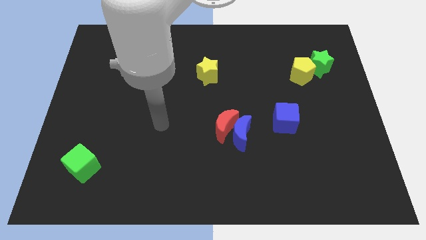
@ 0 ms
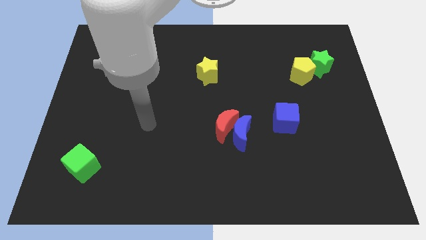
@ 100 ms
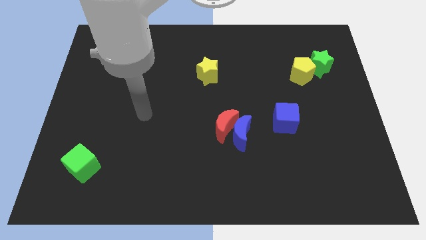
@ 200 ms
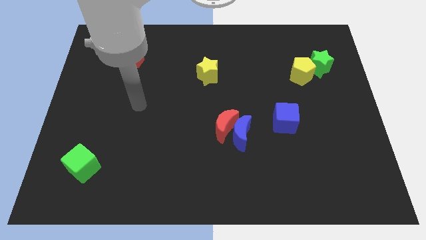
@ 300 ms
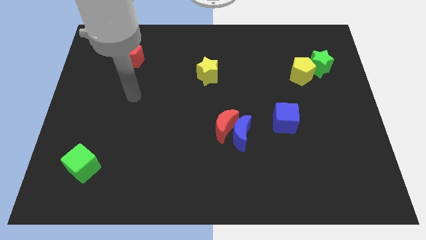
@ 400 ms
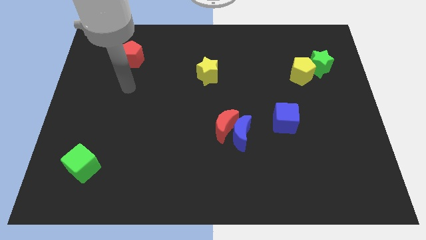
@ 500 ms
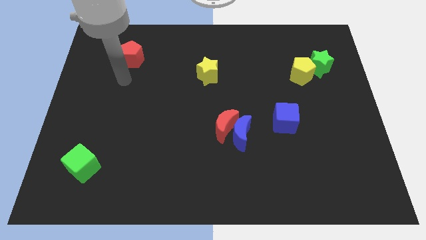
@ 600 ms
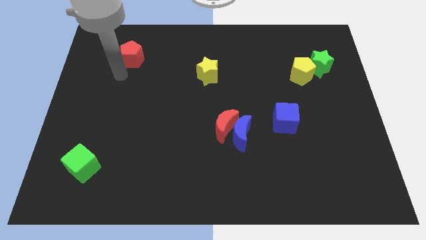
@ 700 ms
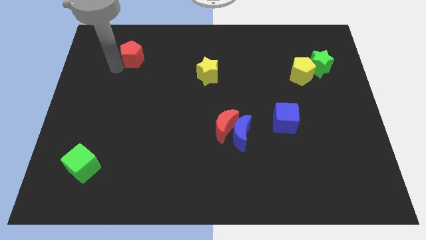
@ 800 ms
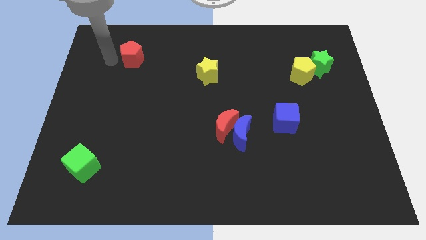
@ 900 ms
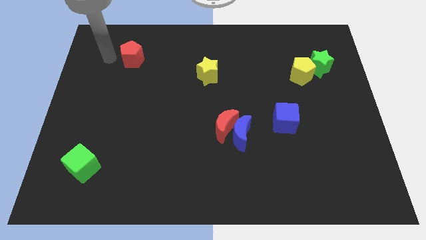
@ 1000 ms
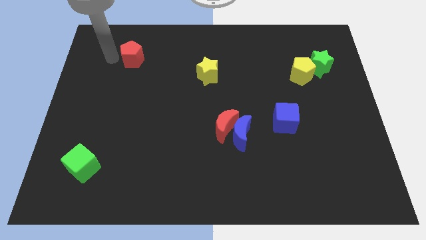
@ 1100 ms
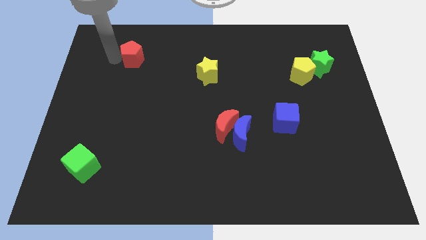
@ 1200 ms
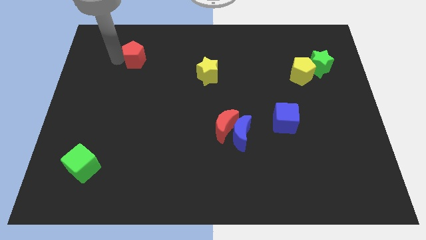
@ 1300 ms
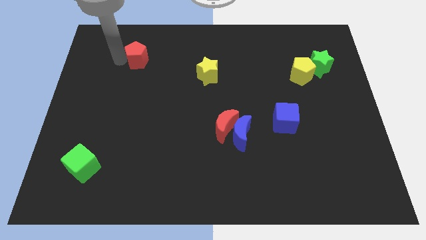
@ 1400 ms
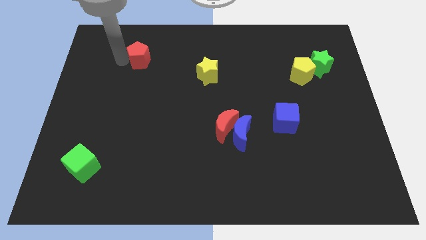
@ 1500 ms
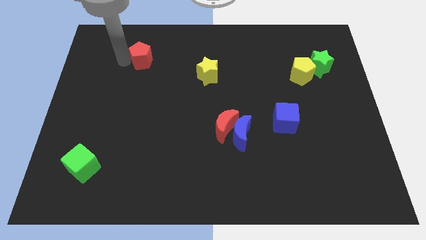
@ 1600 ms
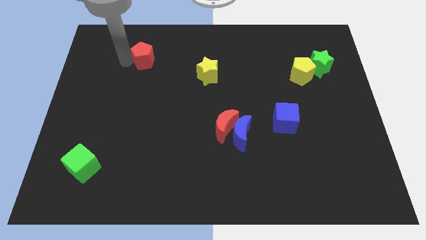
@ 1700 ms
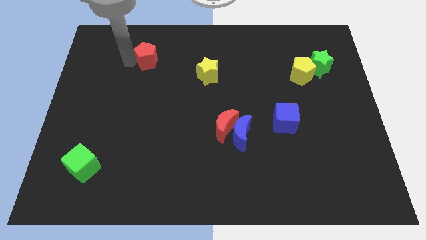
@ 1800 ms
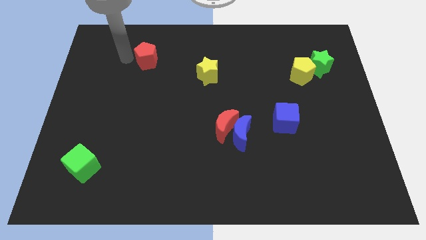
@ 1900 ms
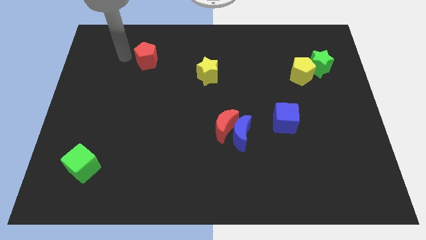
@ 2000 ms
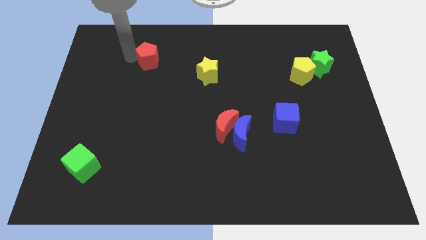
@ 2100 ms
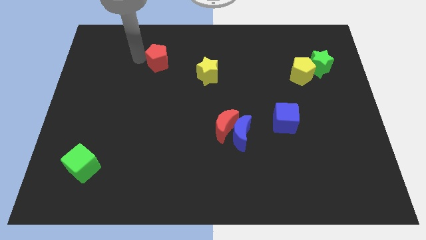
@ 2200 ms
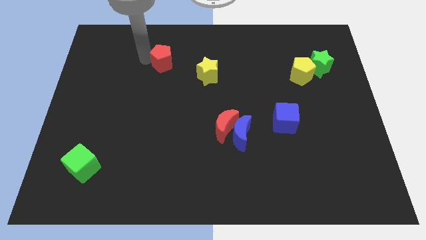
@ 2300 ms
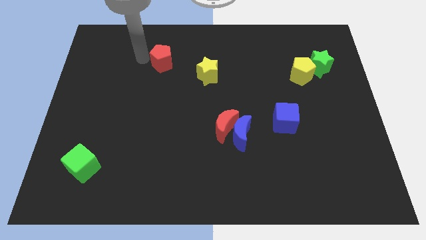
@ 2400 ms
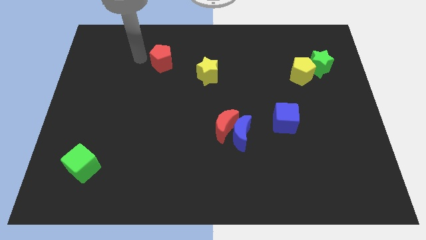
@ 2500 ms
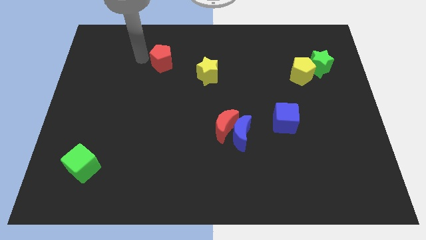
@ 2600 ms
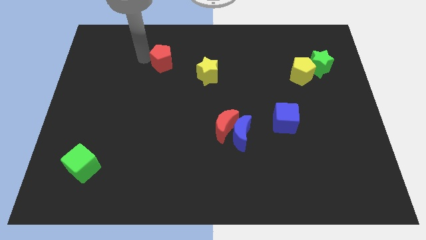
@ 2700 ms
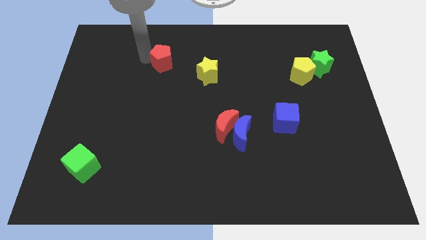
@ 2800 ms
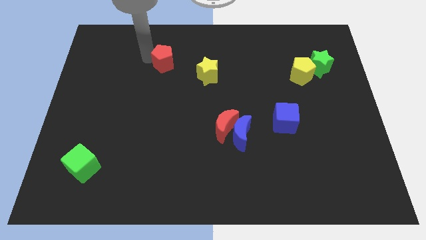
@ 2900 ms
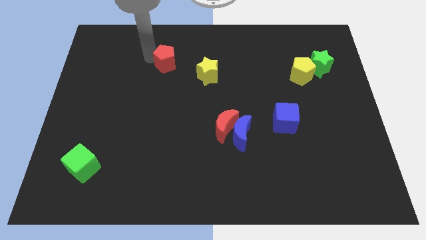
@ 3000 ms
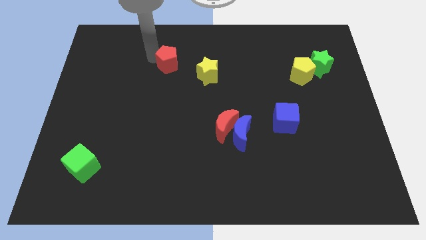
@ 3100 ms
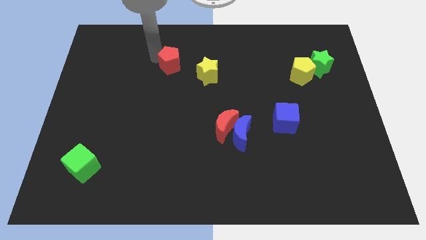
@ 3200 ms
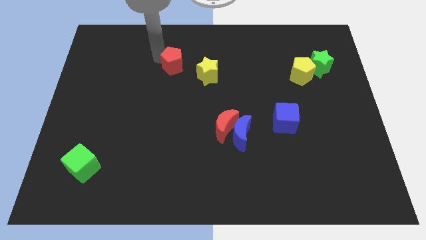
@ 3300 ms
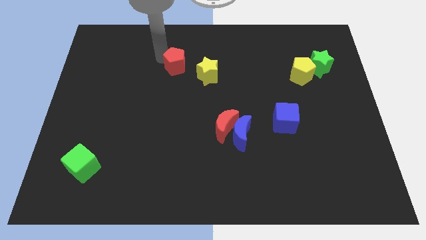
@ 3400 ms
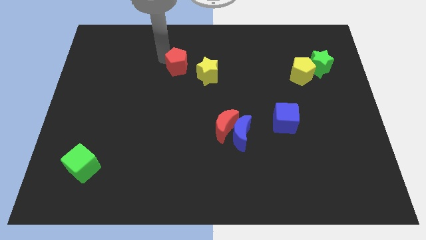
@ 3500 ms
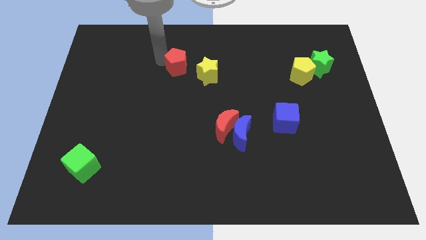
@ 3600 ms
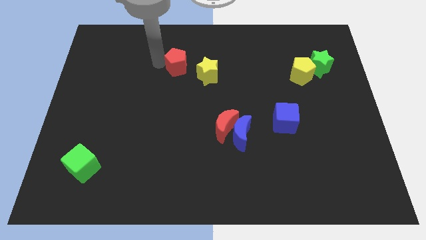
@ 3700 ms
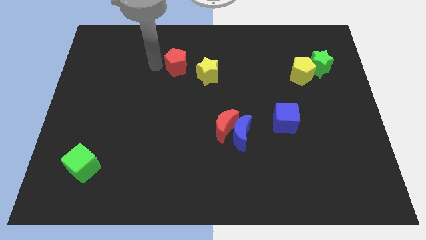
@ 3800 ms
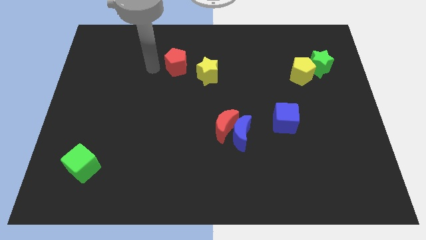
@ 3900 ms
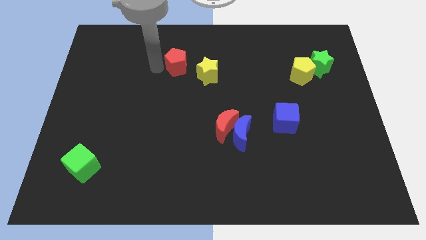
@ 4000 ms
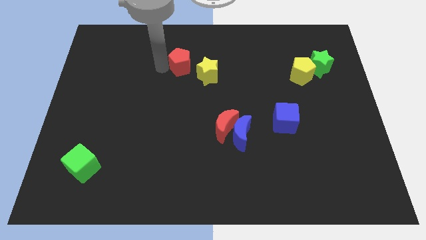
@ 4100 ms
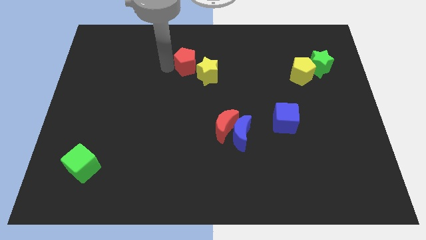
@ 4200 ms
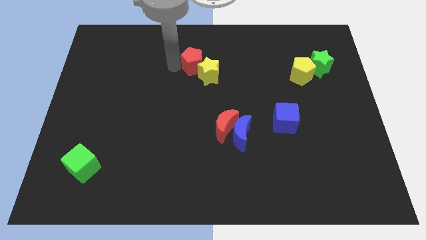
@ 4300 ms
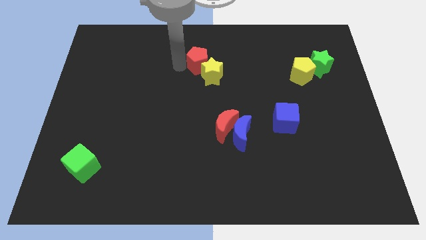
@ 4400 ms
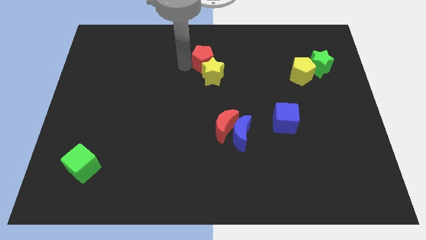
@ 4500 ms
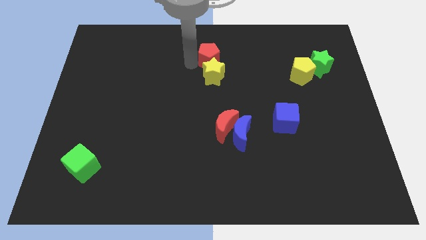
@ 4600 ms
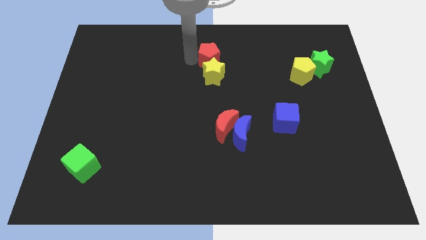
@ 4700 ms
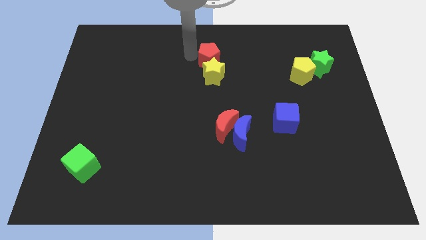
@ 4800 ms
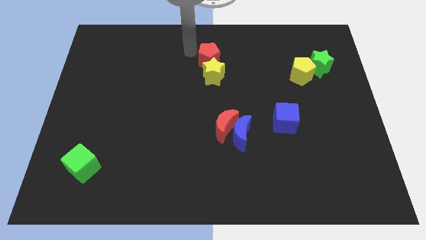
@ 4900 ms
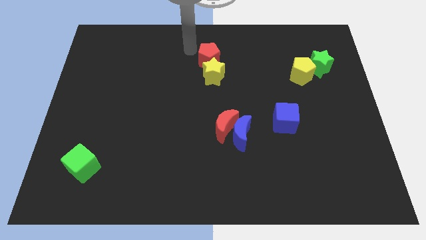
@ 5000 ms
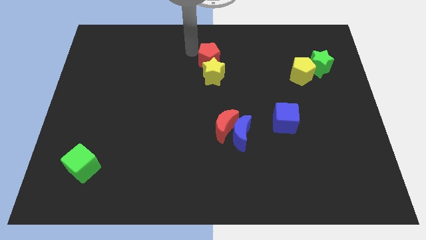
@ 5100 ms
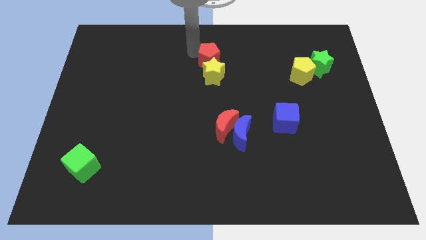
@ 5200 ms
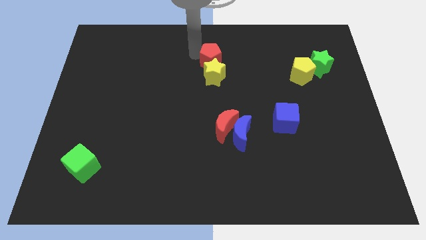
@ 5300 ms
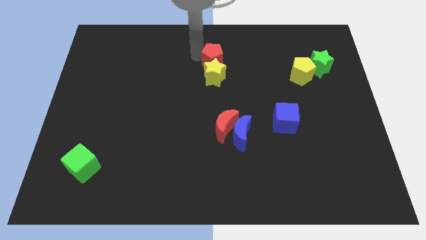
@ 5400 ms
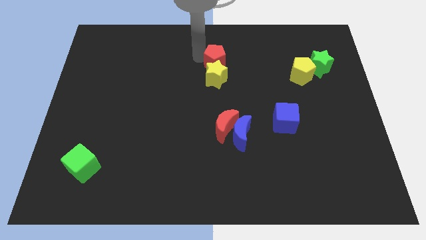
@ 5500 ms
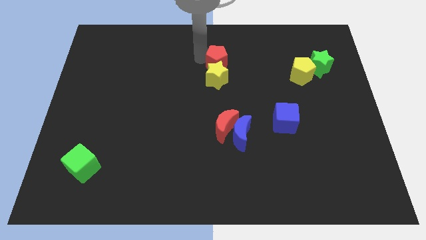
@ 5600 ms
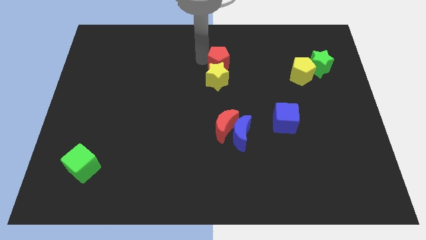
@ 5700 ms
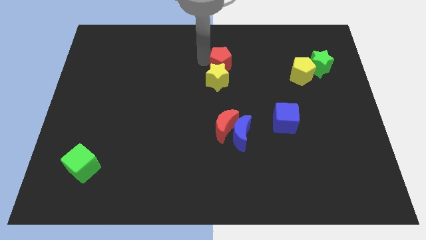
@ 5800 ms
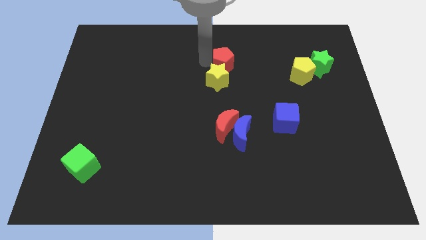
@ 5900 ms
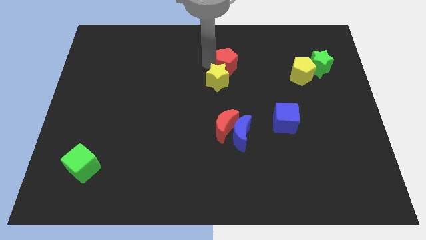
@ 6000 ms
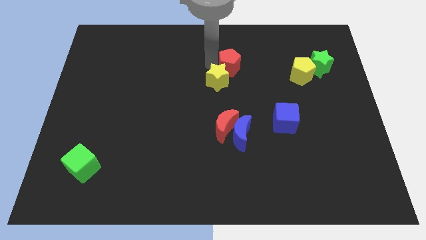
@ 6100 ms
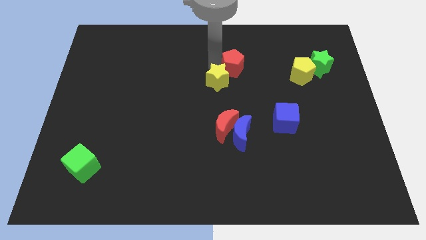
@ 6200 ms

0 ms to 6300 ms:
push the red pentagon right of the yellow star
